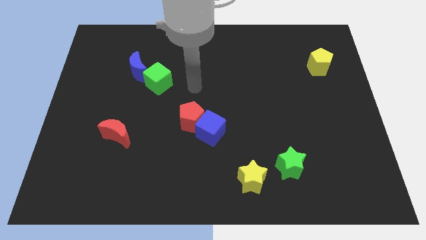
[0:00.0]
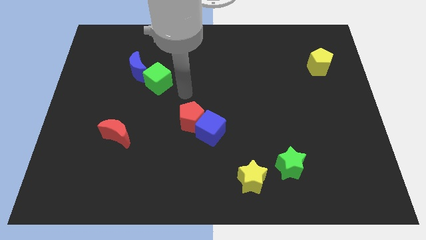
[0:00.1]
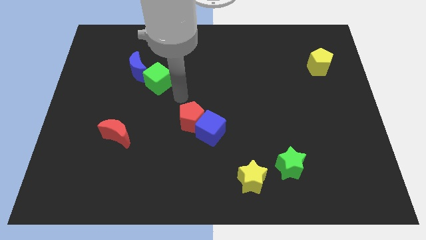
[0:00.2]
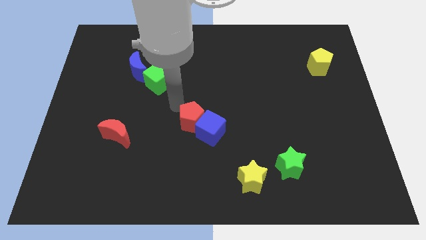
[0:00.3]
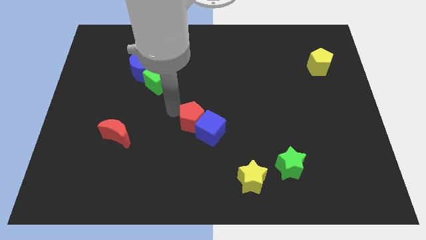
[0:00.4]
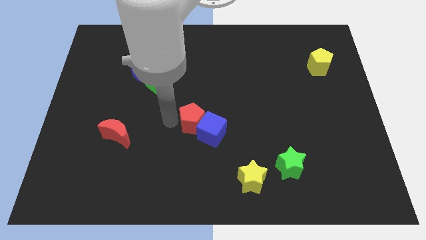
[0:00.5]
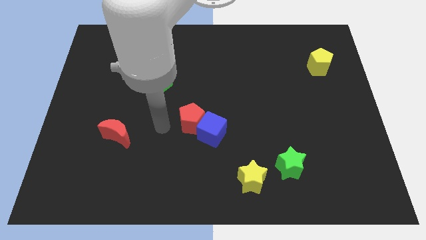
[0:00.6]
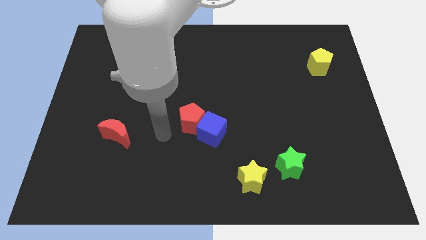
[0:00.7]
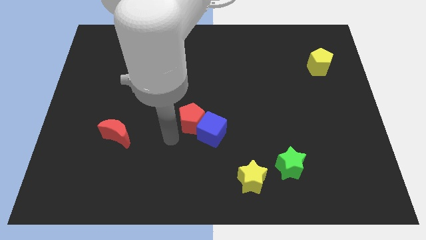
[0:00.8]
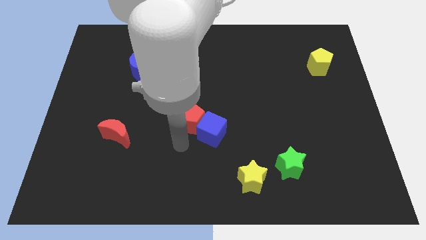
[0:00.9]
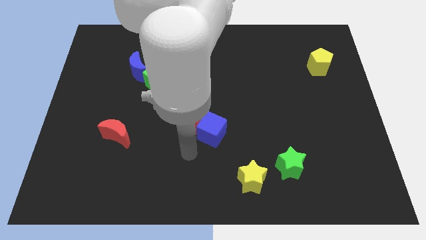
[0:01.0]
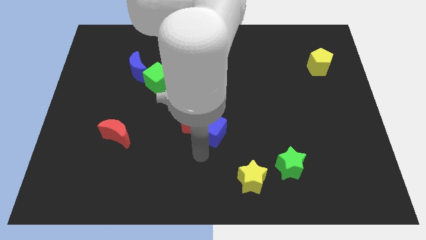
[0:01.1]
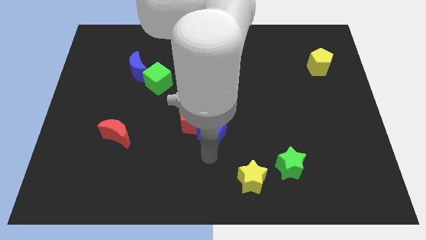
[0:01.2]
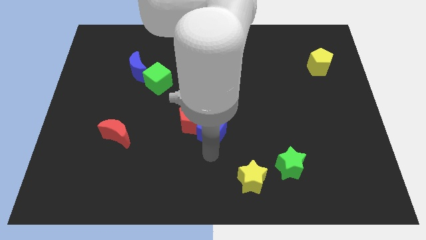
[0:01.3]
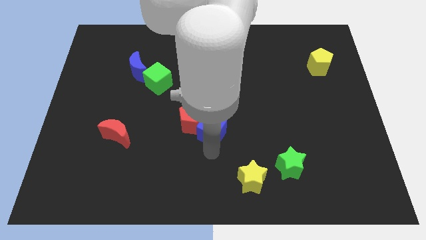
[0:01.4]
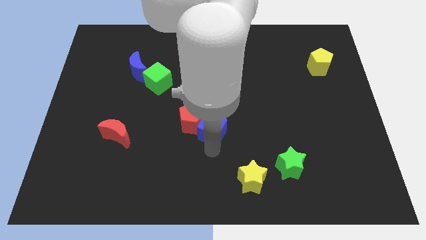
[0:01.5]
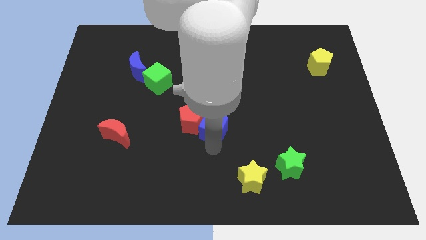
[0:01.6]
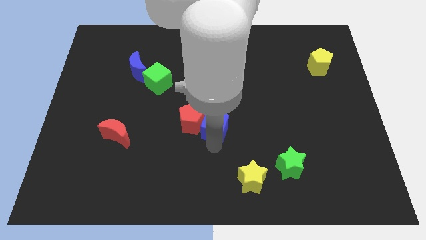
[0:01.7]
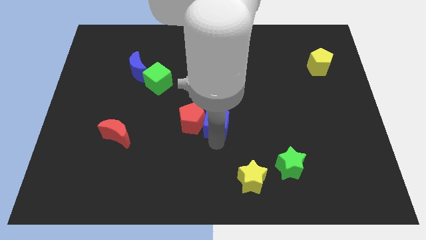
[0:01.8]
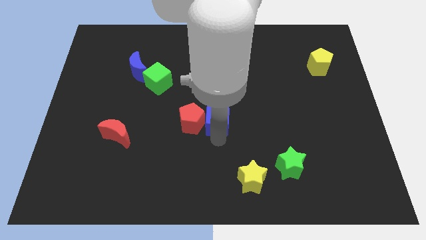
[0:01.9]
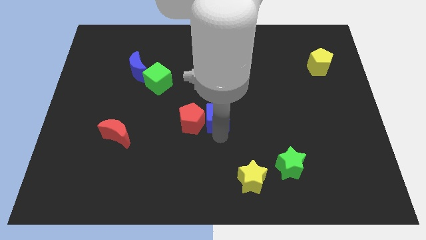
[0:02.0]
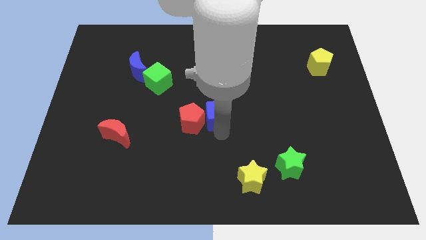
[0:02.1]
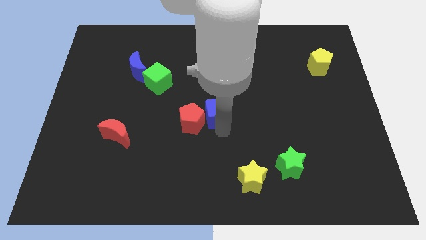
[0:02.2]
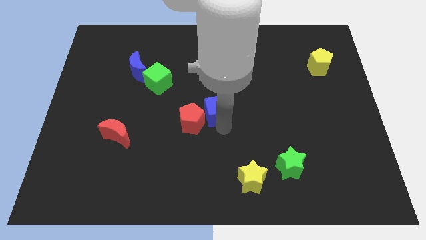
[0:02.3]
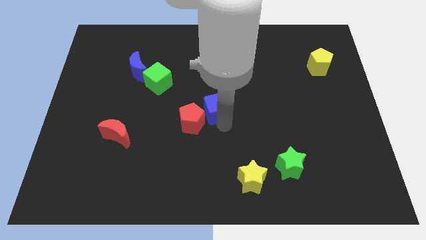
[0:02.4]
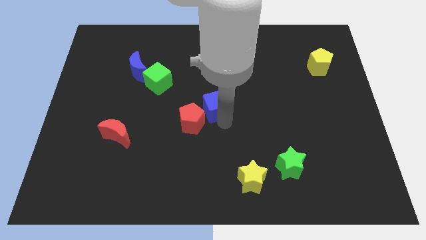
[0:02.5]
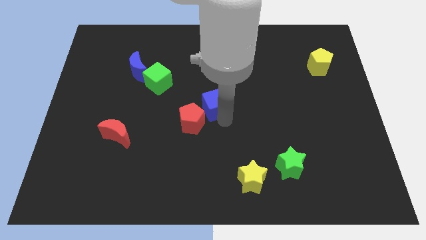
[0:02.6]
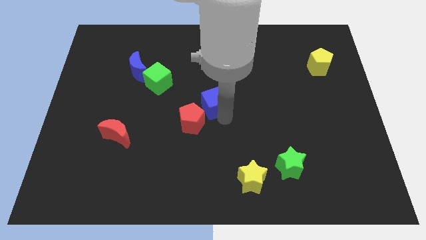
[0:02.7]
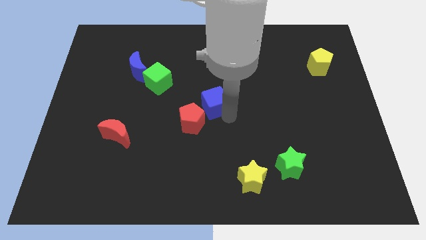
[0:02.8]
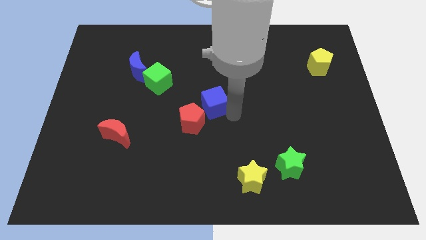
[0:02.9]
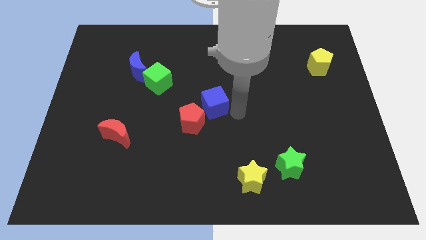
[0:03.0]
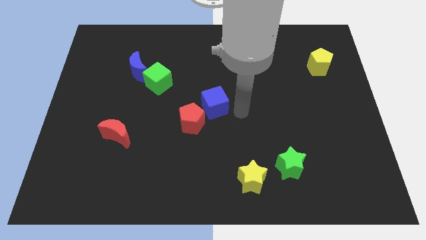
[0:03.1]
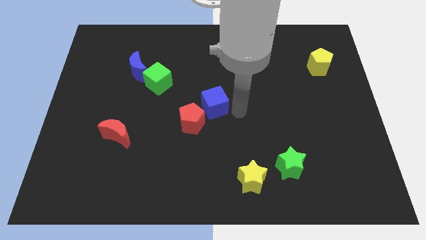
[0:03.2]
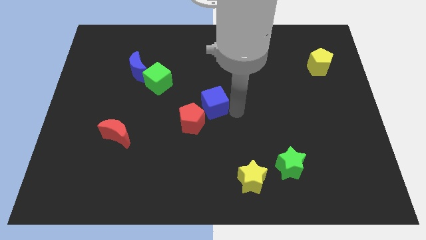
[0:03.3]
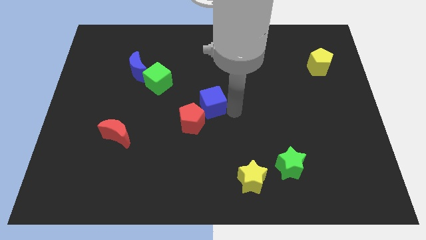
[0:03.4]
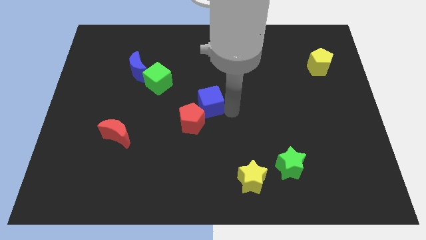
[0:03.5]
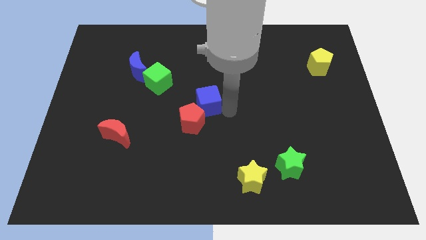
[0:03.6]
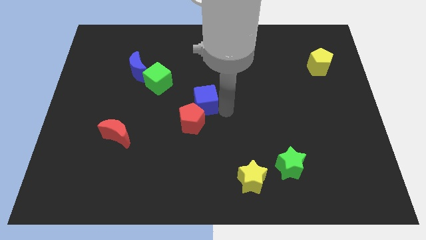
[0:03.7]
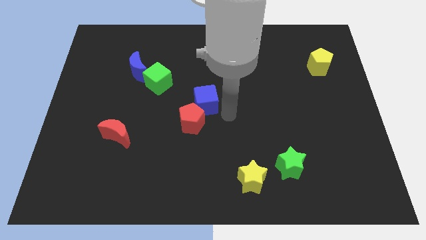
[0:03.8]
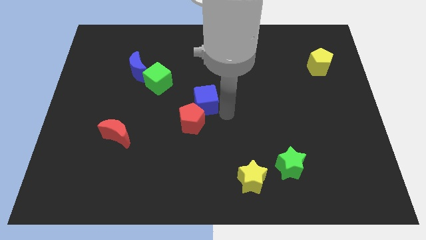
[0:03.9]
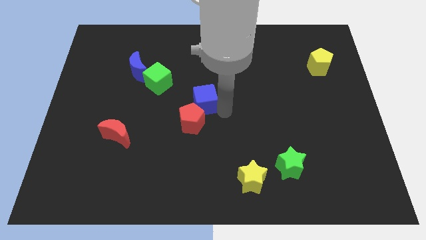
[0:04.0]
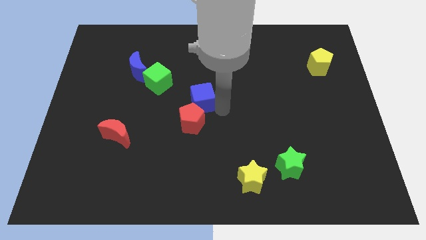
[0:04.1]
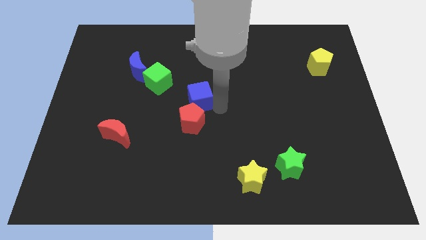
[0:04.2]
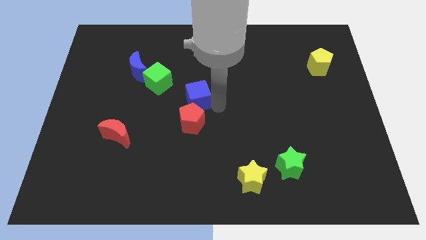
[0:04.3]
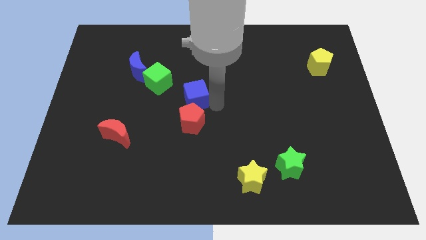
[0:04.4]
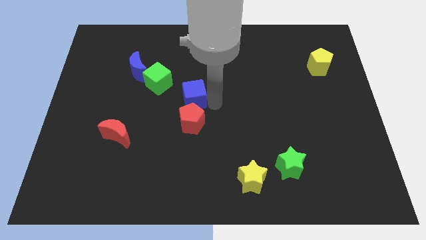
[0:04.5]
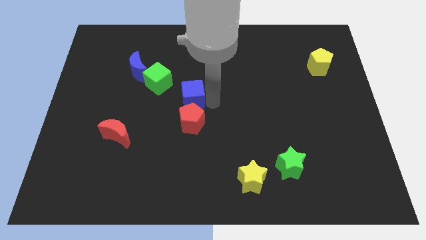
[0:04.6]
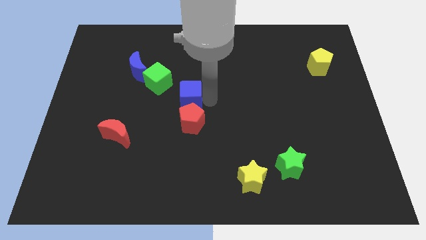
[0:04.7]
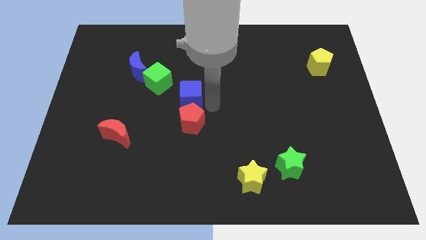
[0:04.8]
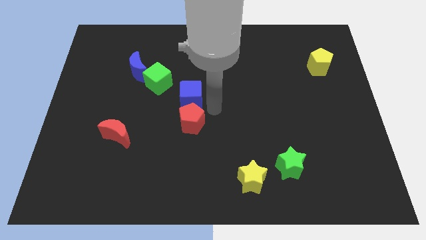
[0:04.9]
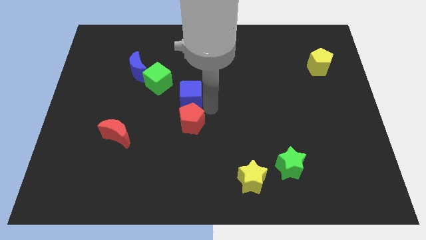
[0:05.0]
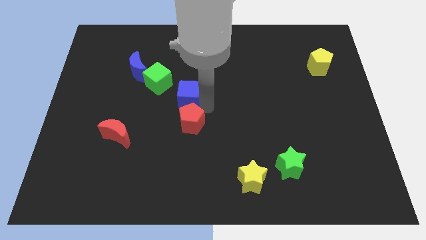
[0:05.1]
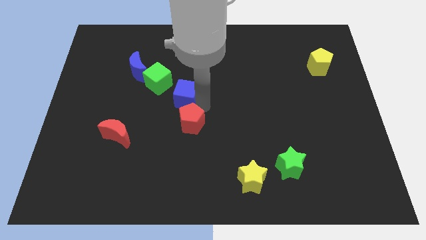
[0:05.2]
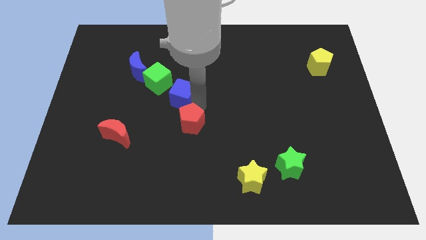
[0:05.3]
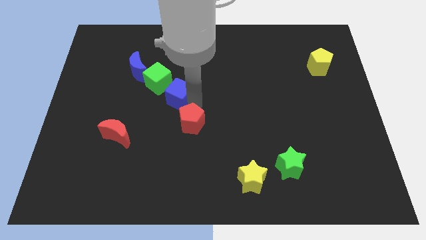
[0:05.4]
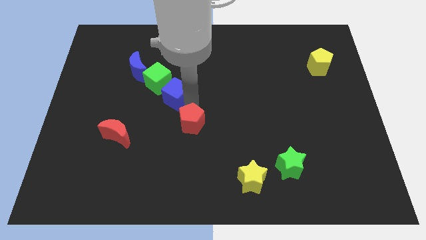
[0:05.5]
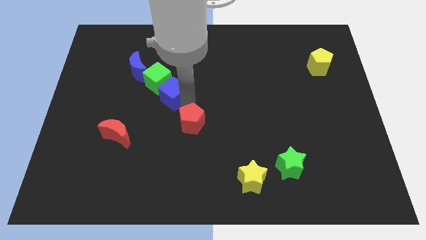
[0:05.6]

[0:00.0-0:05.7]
put the blue cube next to the green cube

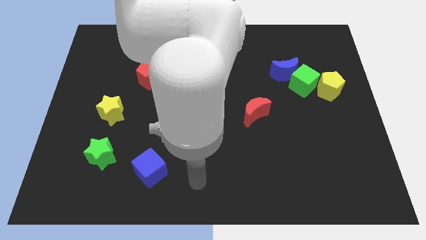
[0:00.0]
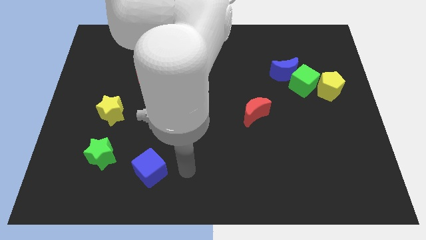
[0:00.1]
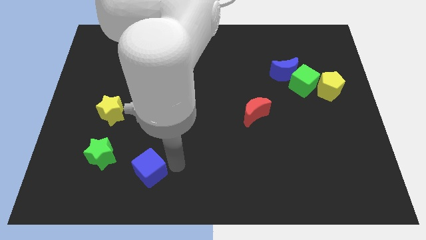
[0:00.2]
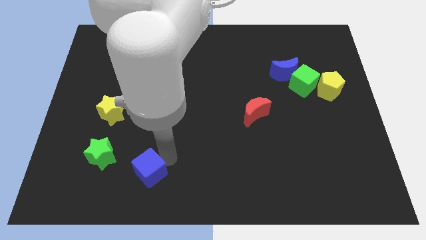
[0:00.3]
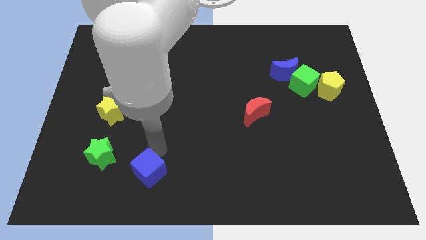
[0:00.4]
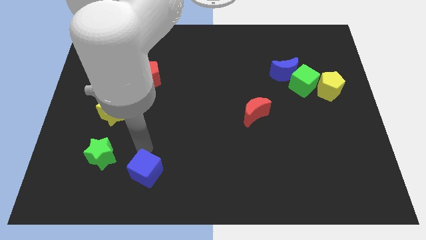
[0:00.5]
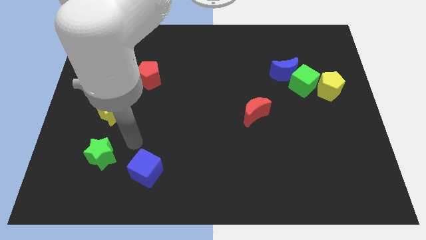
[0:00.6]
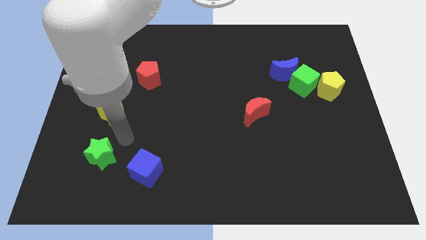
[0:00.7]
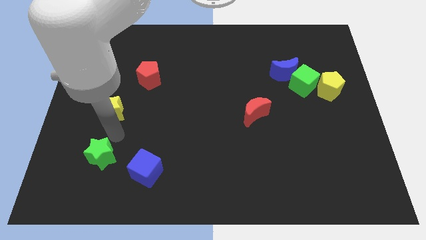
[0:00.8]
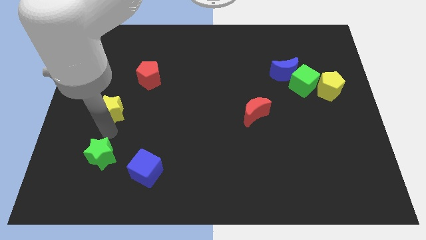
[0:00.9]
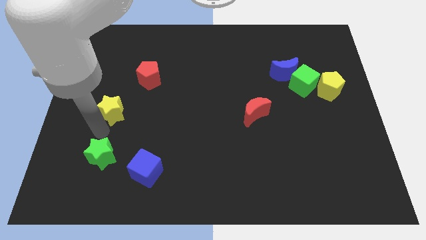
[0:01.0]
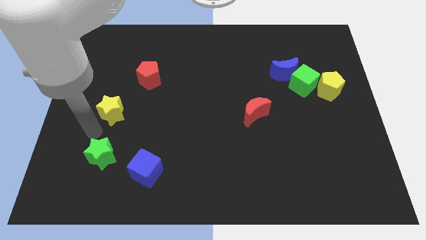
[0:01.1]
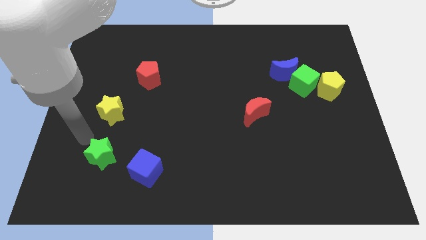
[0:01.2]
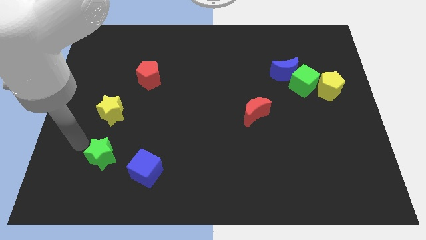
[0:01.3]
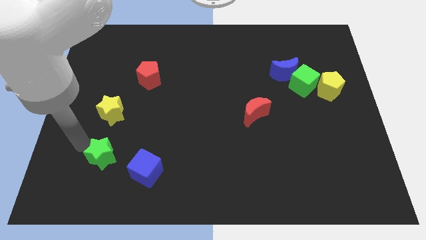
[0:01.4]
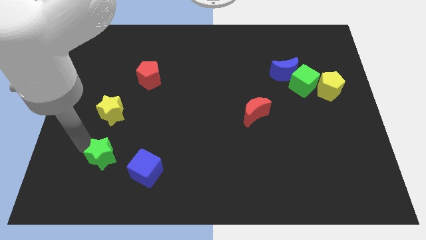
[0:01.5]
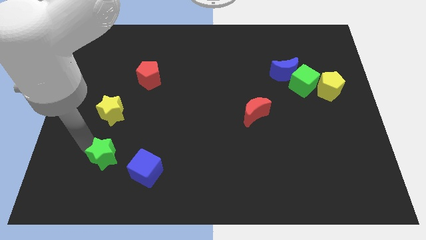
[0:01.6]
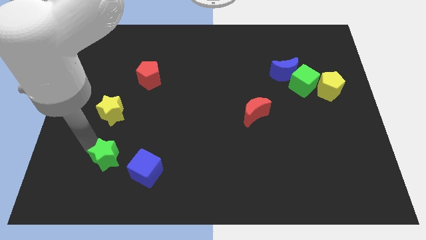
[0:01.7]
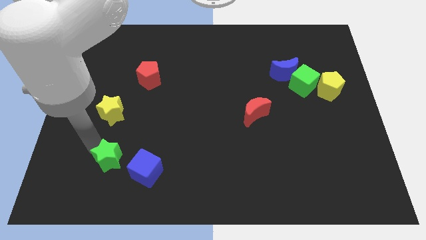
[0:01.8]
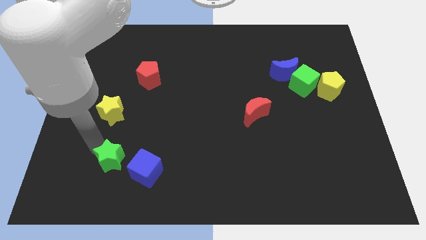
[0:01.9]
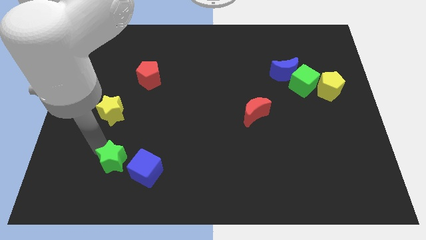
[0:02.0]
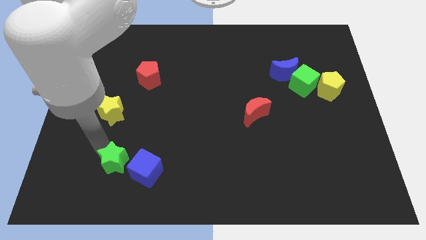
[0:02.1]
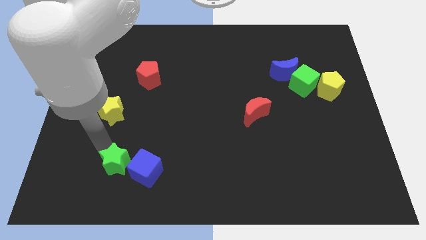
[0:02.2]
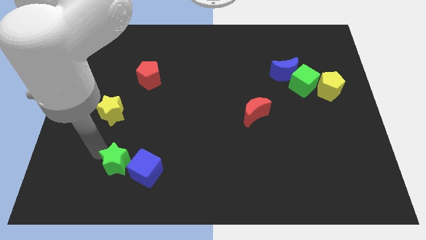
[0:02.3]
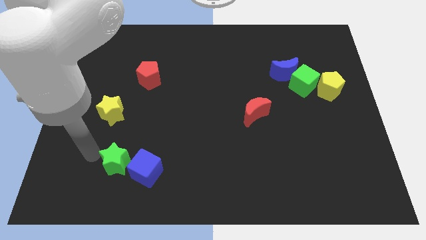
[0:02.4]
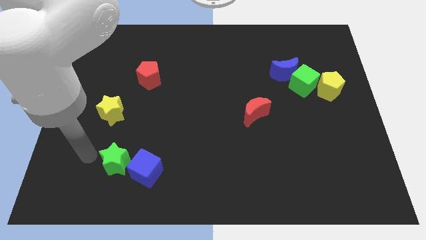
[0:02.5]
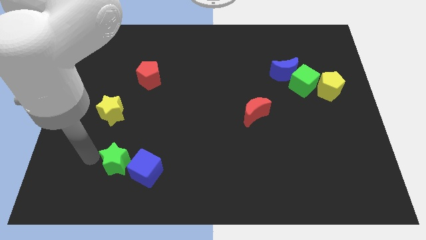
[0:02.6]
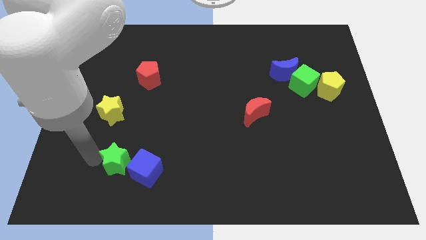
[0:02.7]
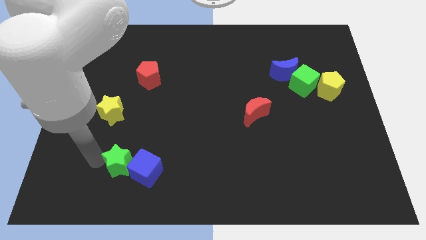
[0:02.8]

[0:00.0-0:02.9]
put the green star next to the blue cube
